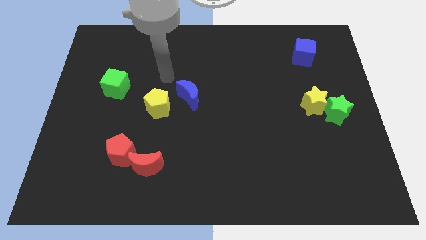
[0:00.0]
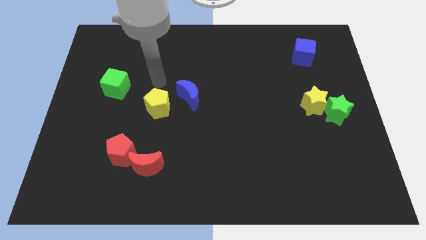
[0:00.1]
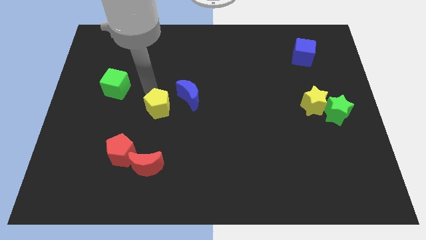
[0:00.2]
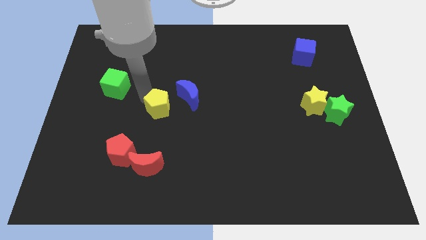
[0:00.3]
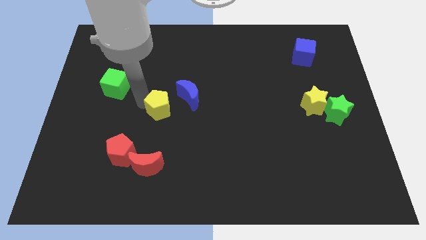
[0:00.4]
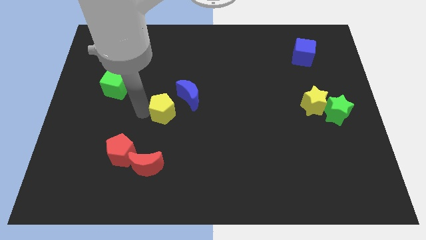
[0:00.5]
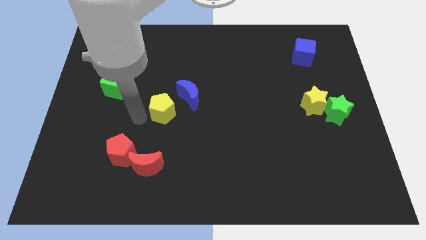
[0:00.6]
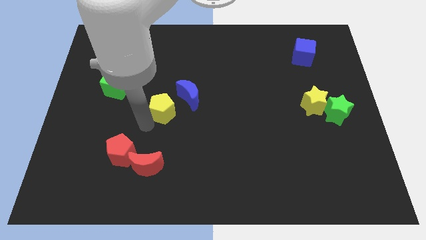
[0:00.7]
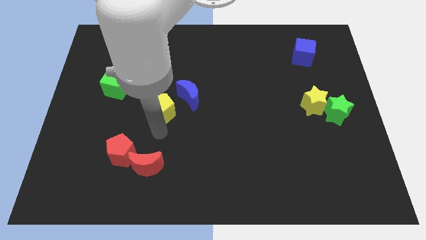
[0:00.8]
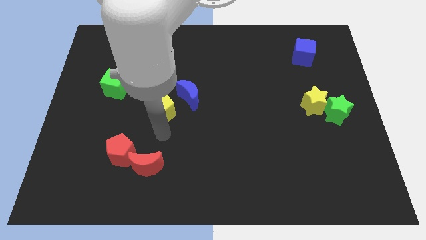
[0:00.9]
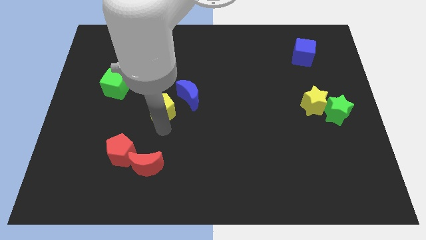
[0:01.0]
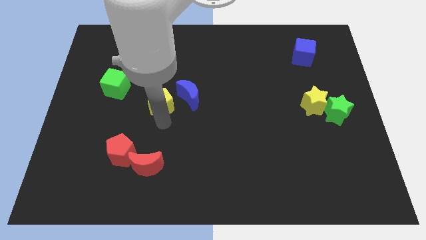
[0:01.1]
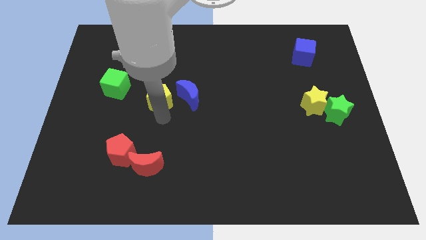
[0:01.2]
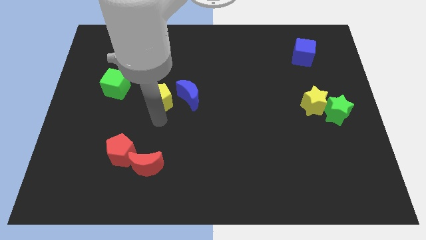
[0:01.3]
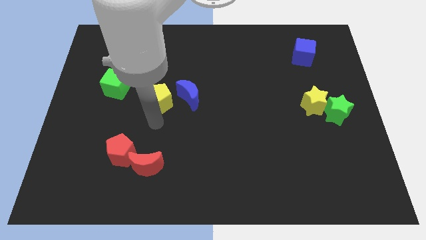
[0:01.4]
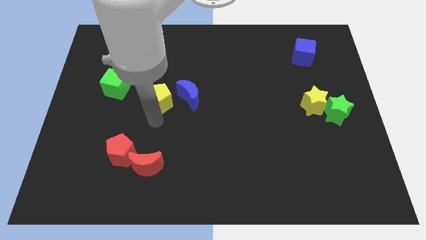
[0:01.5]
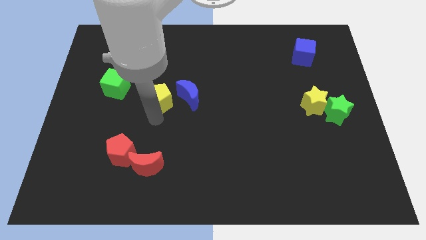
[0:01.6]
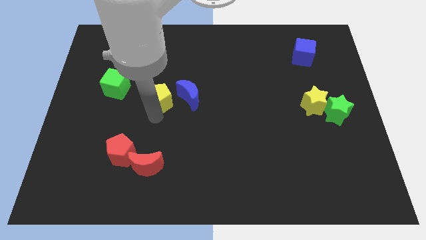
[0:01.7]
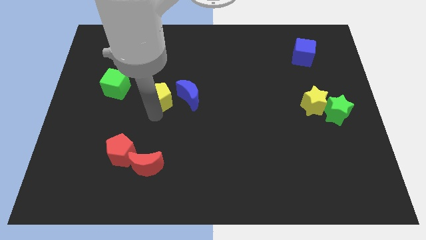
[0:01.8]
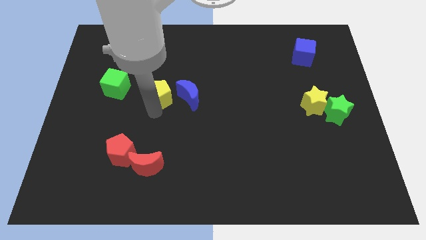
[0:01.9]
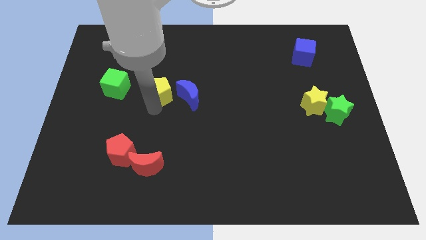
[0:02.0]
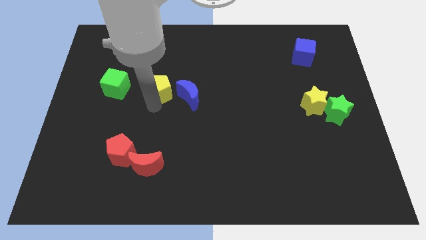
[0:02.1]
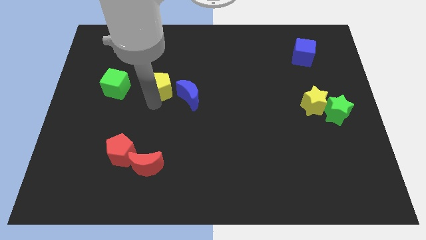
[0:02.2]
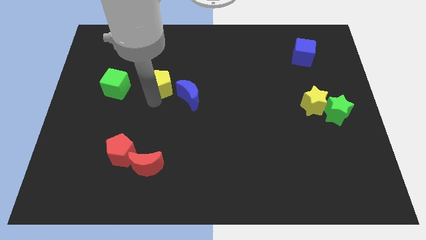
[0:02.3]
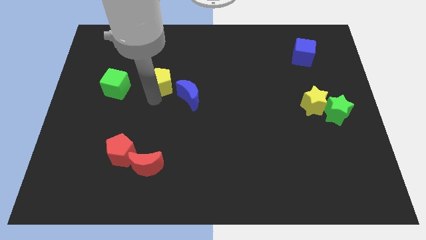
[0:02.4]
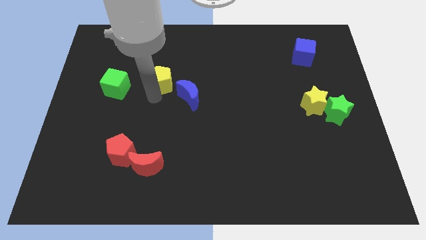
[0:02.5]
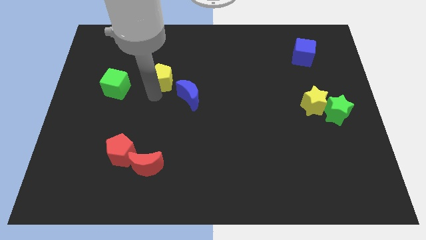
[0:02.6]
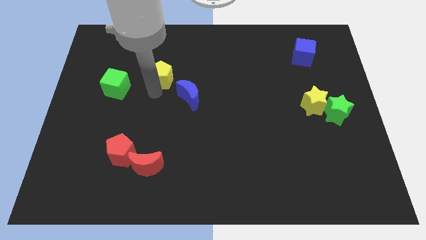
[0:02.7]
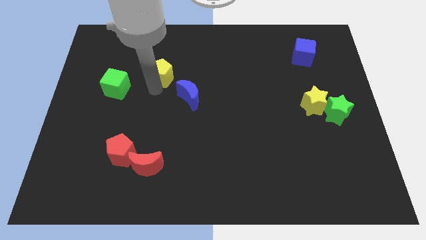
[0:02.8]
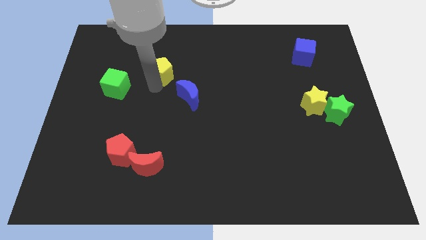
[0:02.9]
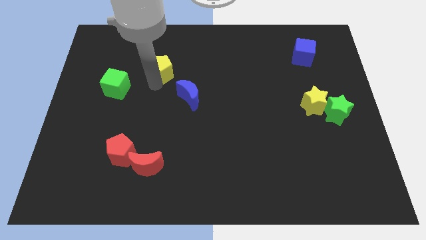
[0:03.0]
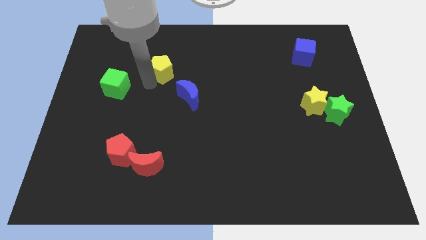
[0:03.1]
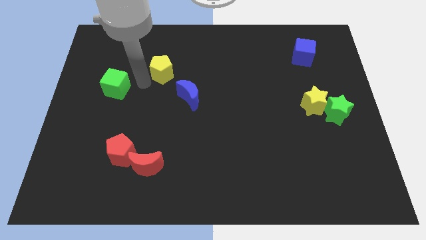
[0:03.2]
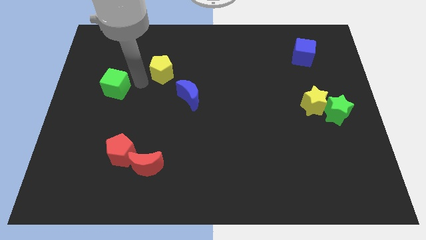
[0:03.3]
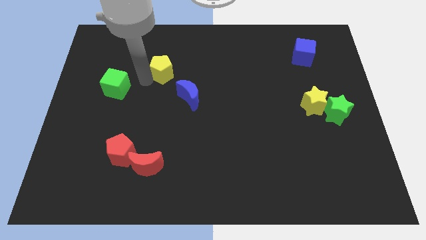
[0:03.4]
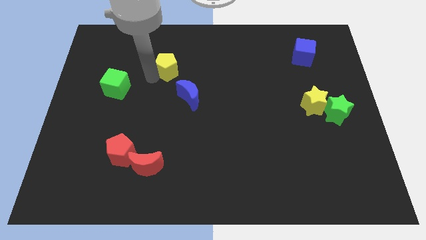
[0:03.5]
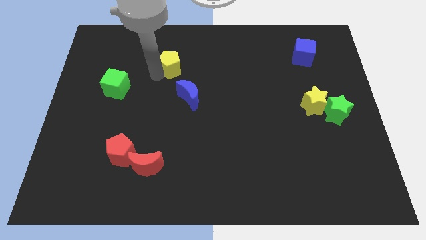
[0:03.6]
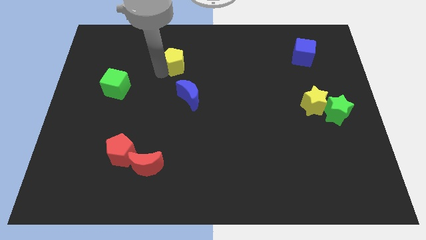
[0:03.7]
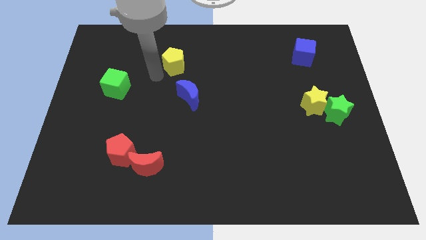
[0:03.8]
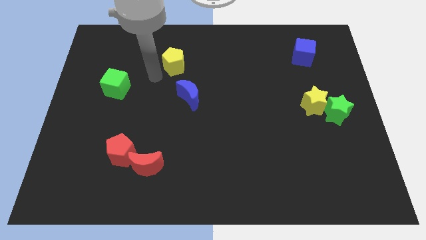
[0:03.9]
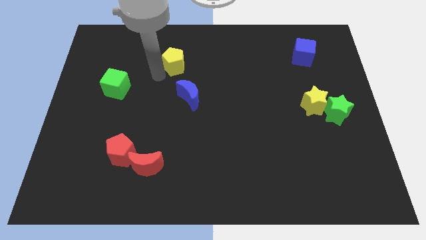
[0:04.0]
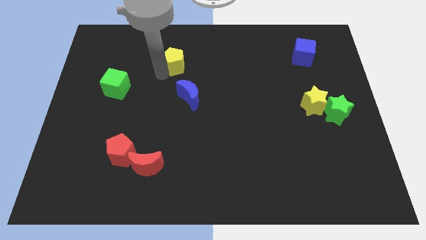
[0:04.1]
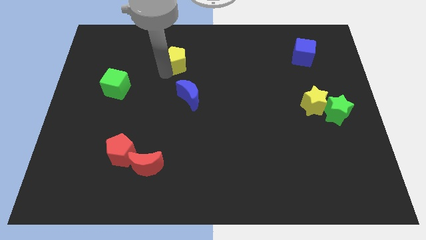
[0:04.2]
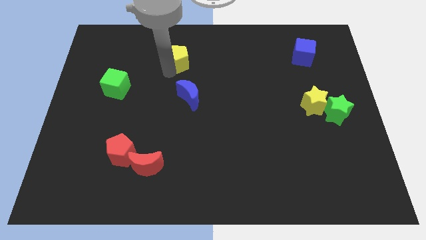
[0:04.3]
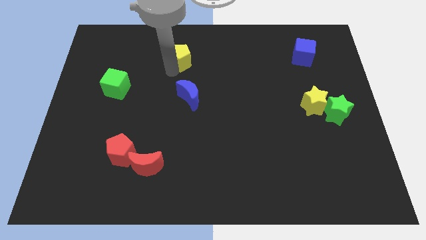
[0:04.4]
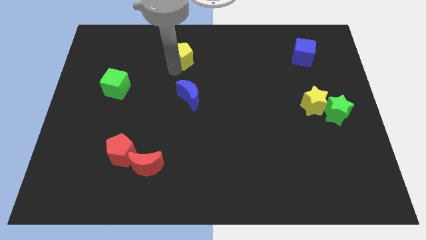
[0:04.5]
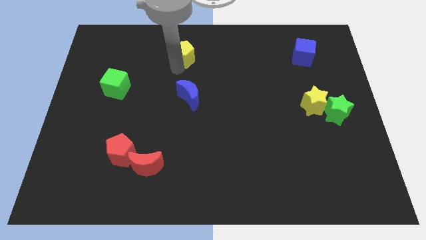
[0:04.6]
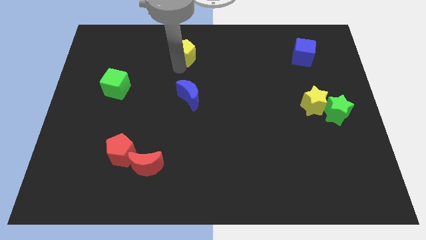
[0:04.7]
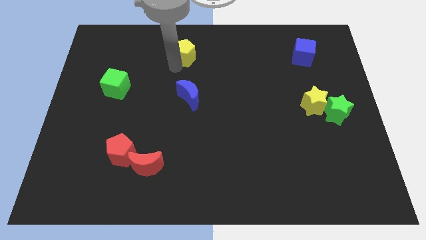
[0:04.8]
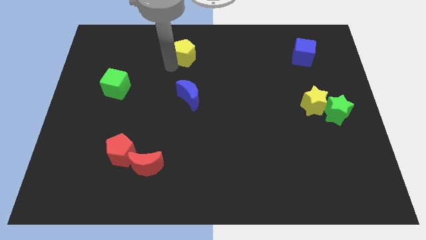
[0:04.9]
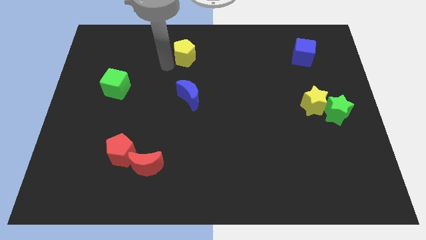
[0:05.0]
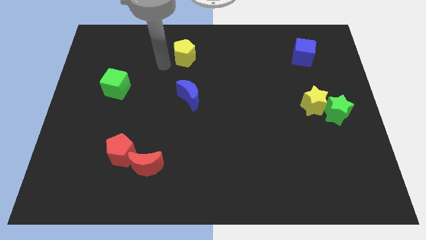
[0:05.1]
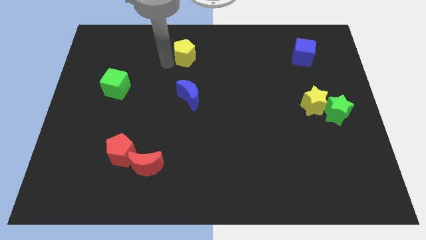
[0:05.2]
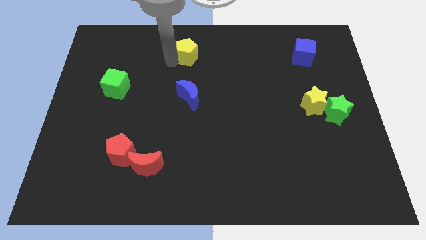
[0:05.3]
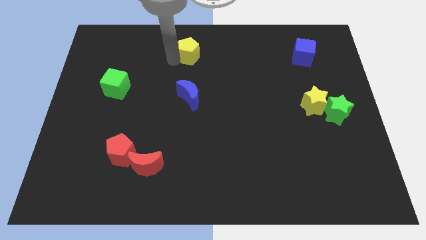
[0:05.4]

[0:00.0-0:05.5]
push the yellow pentagon to the towards your base

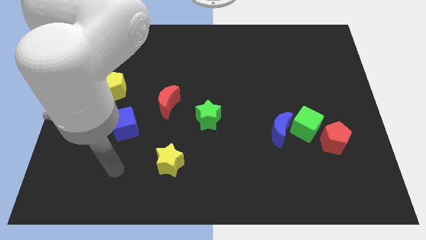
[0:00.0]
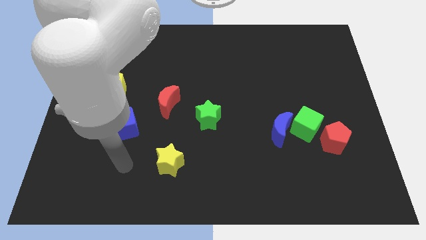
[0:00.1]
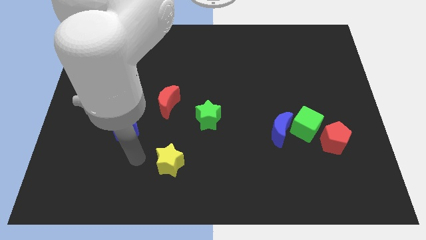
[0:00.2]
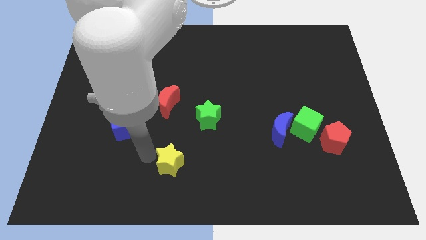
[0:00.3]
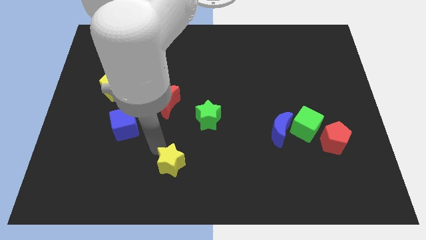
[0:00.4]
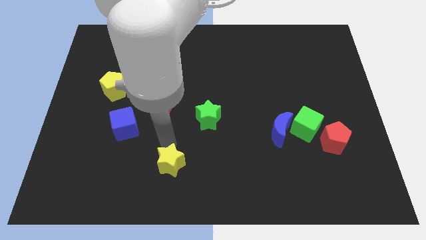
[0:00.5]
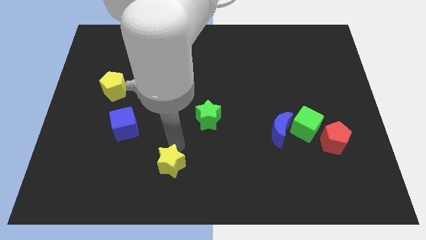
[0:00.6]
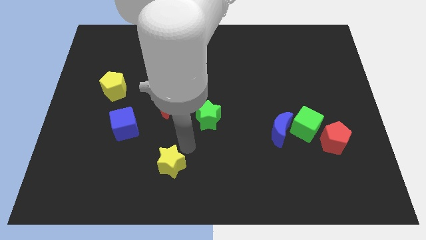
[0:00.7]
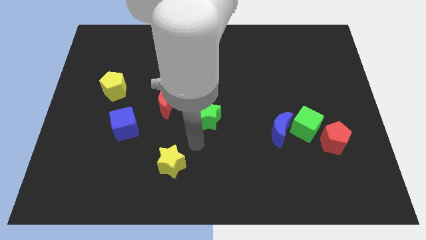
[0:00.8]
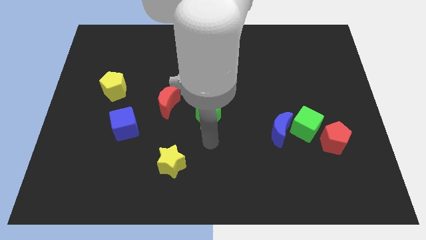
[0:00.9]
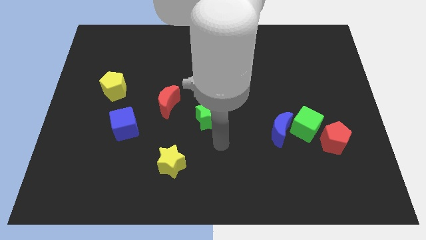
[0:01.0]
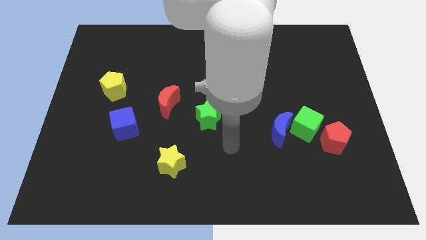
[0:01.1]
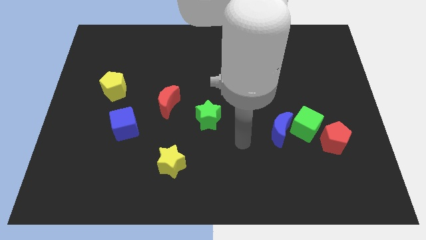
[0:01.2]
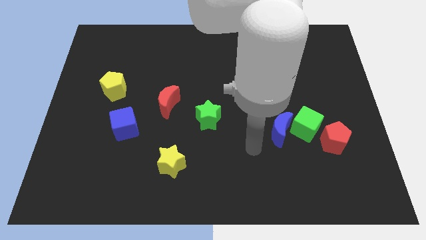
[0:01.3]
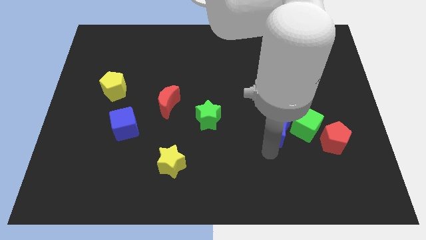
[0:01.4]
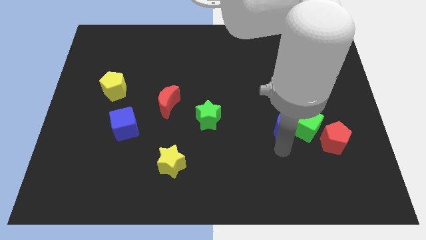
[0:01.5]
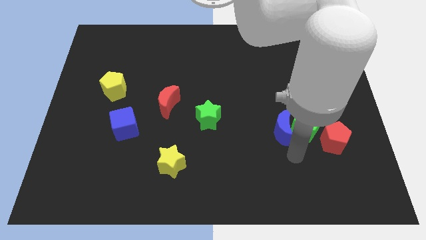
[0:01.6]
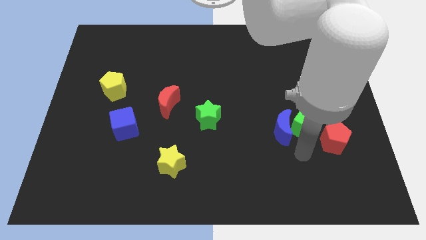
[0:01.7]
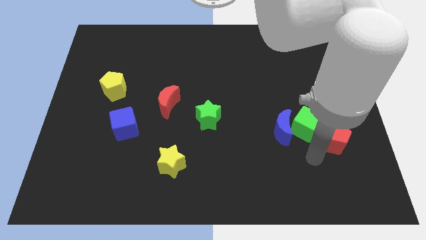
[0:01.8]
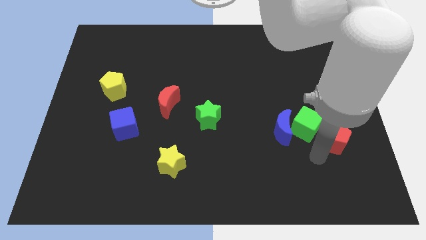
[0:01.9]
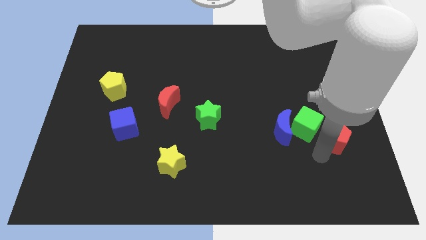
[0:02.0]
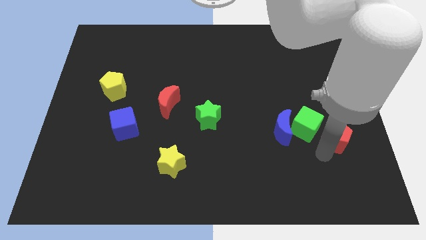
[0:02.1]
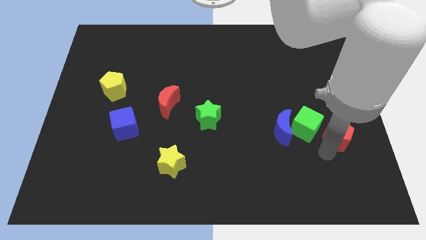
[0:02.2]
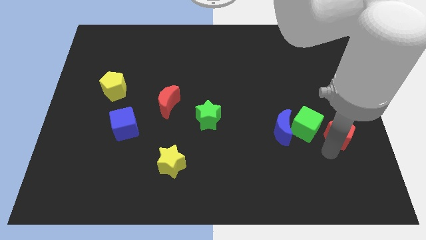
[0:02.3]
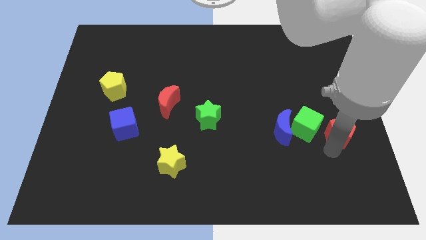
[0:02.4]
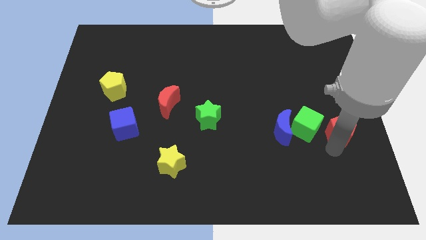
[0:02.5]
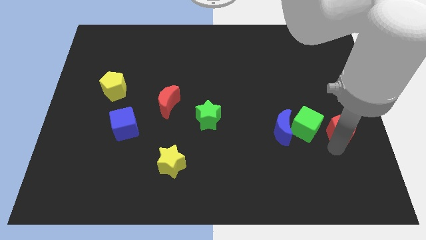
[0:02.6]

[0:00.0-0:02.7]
slide the red pentagon to the right side
